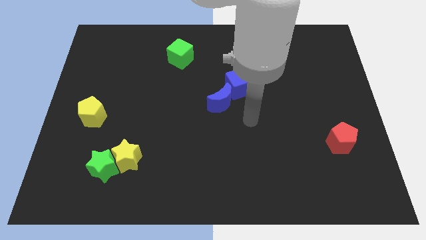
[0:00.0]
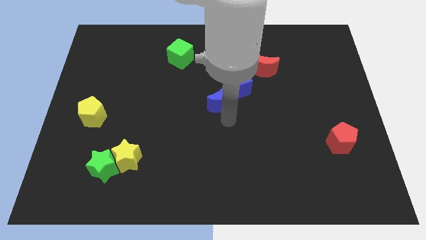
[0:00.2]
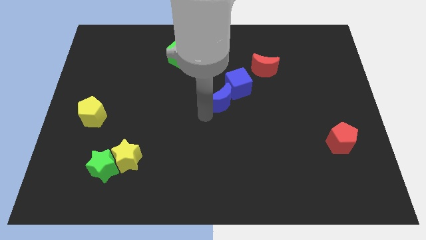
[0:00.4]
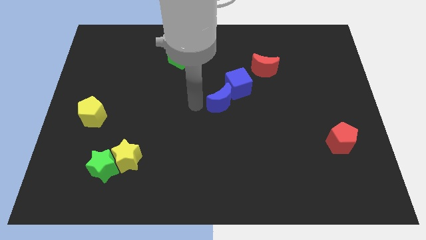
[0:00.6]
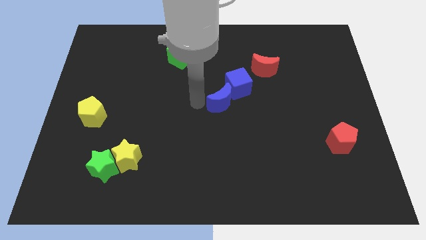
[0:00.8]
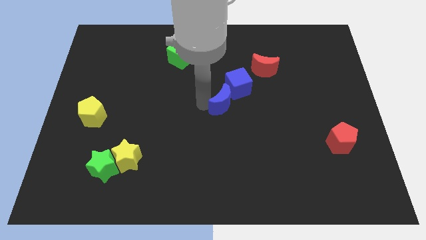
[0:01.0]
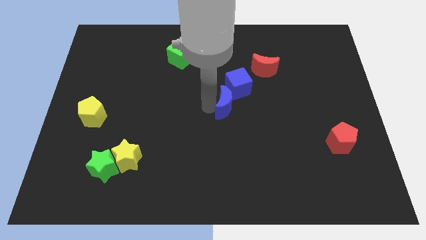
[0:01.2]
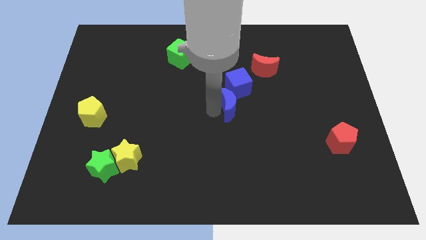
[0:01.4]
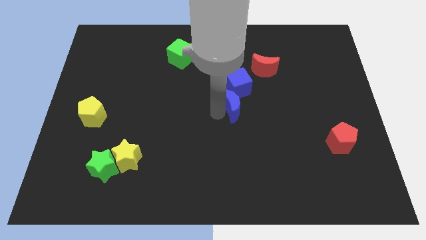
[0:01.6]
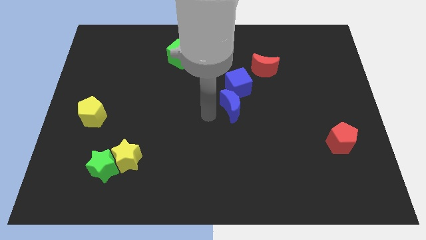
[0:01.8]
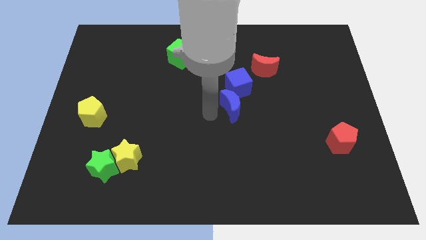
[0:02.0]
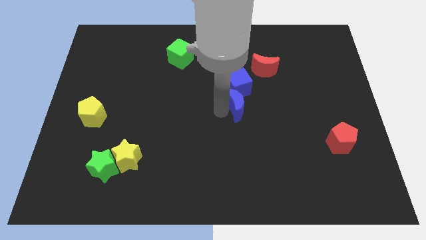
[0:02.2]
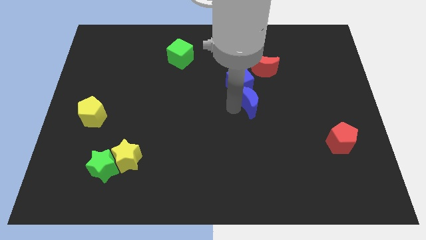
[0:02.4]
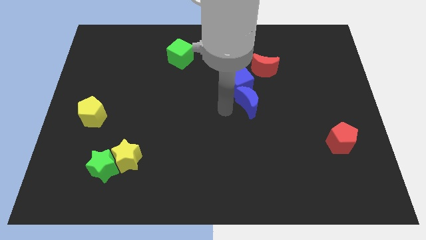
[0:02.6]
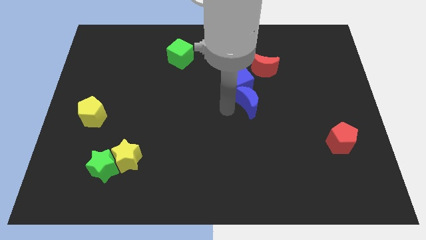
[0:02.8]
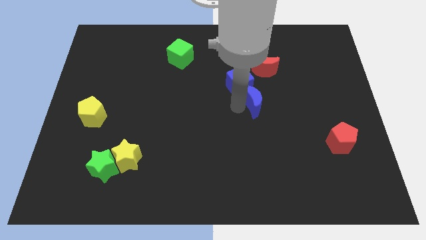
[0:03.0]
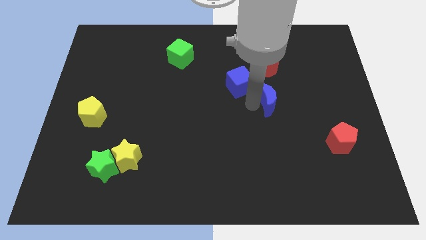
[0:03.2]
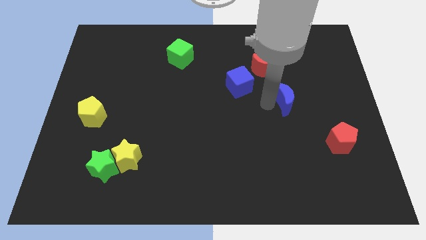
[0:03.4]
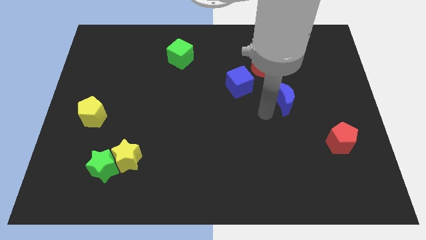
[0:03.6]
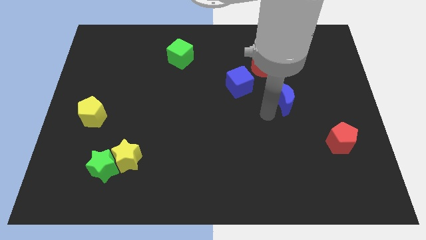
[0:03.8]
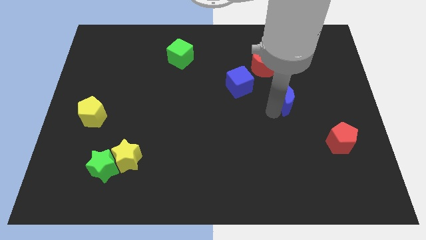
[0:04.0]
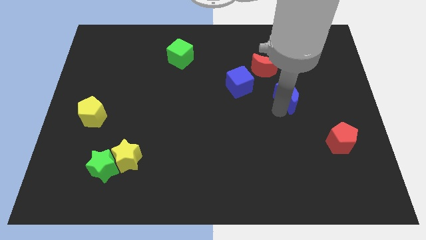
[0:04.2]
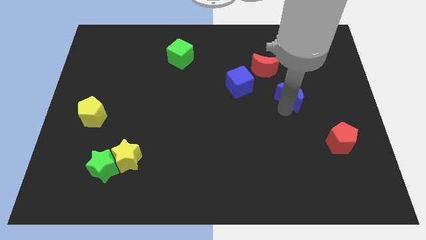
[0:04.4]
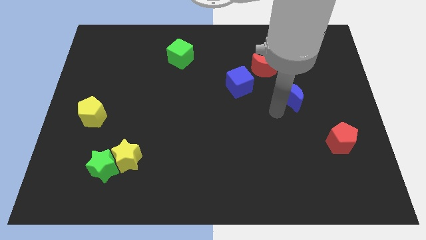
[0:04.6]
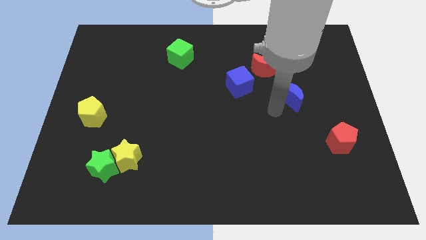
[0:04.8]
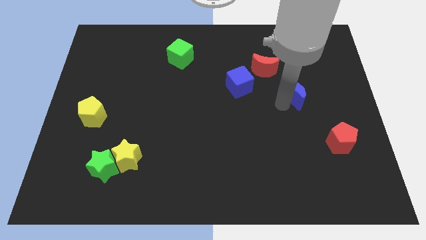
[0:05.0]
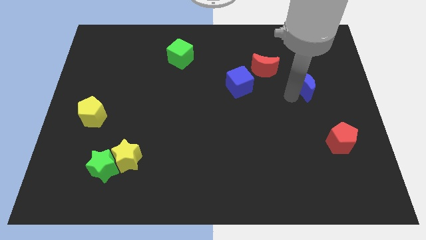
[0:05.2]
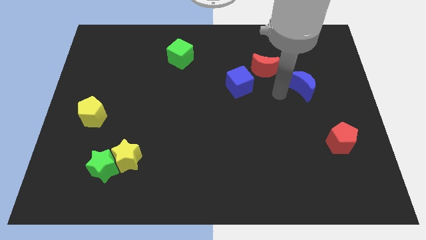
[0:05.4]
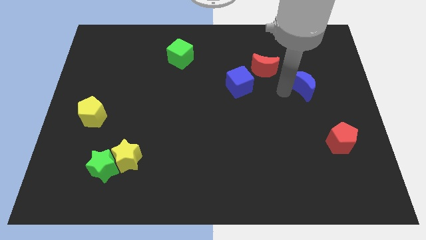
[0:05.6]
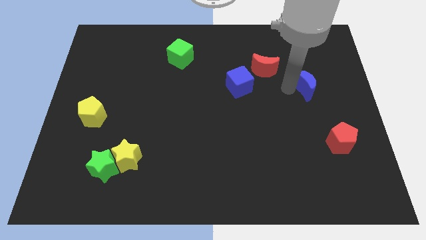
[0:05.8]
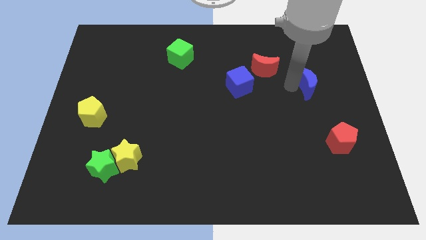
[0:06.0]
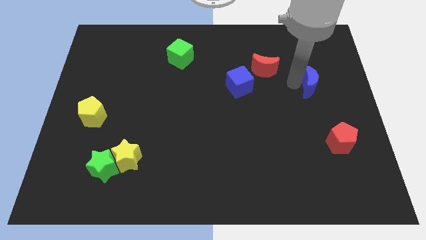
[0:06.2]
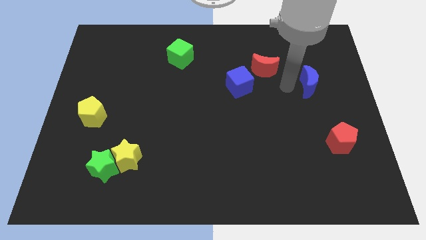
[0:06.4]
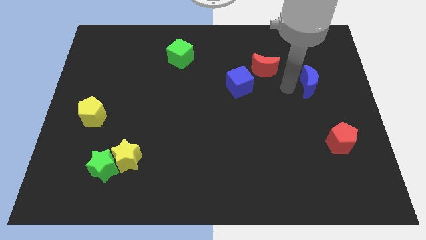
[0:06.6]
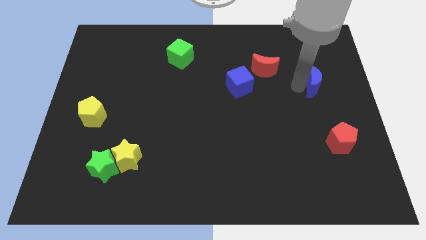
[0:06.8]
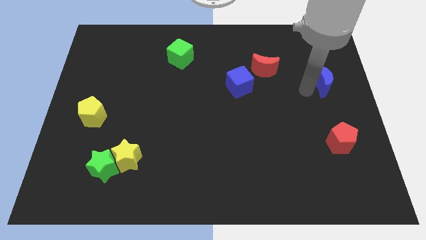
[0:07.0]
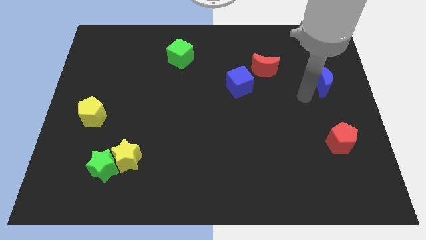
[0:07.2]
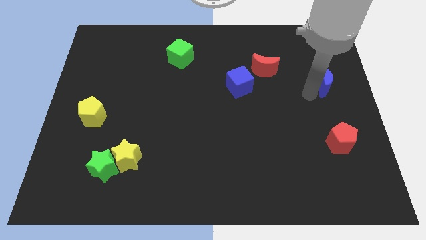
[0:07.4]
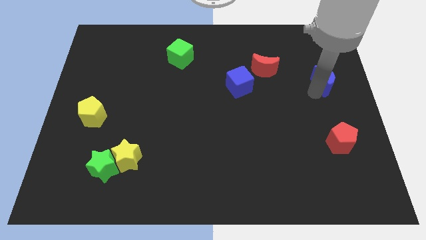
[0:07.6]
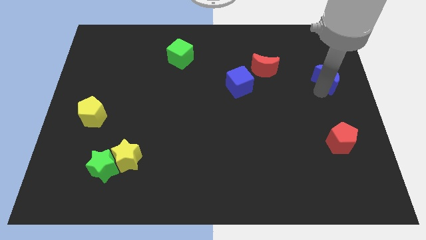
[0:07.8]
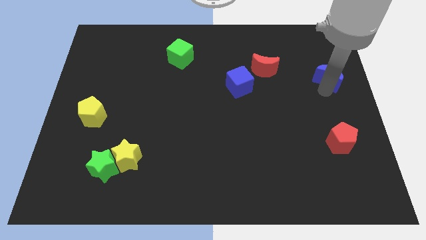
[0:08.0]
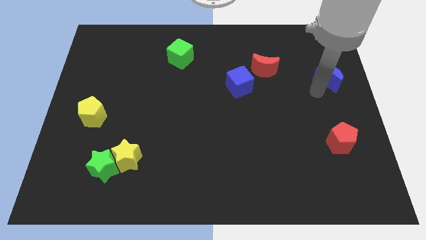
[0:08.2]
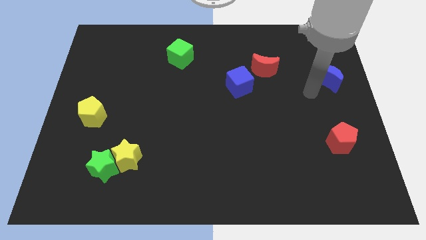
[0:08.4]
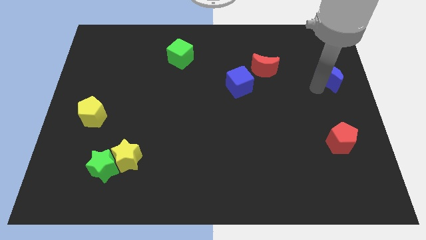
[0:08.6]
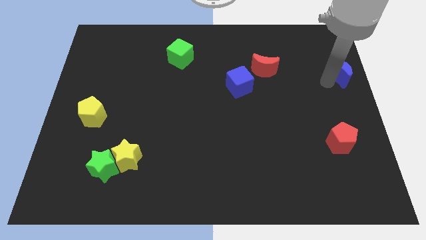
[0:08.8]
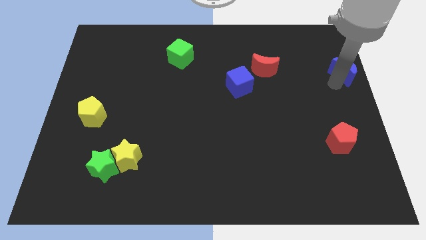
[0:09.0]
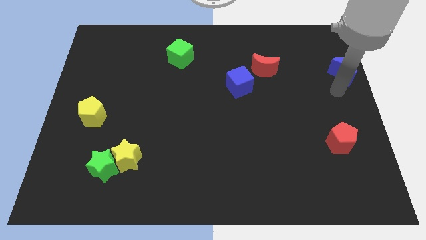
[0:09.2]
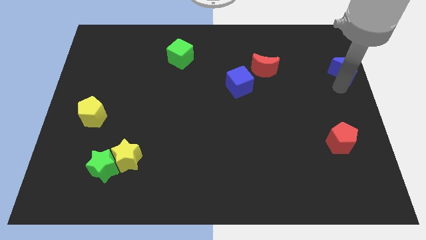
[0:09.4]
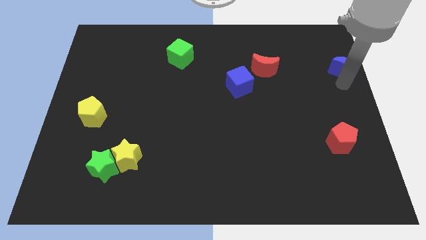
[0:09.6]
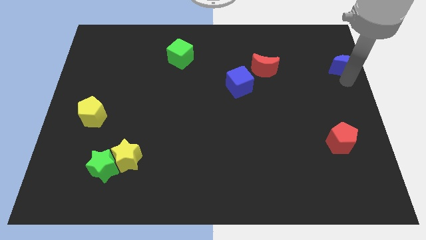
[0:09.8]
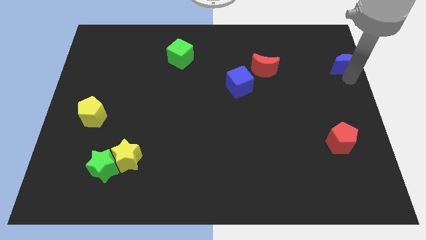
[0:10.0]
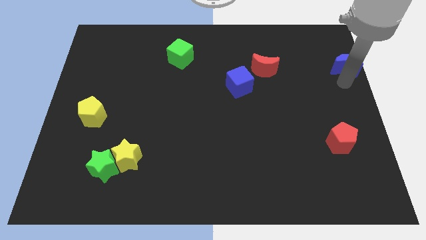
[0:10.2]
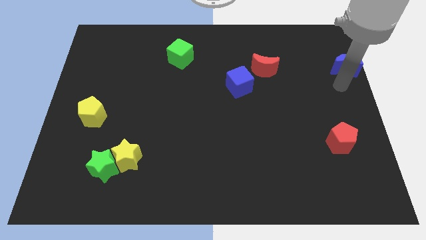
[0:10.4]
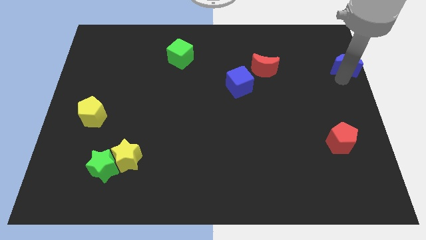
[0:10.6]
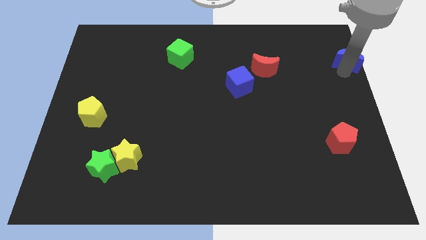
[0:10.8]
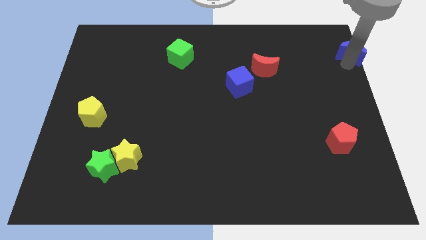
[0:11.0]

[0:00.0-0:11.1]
slide the blue moon to the top right
